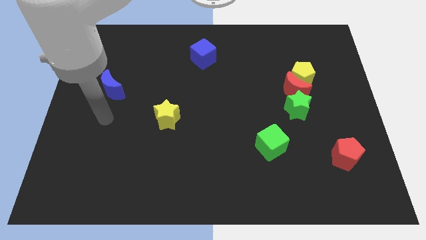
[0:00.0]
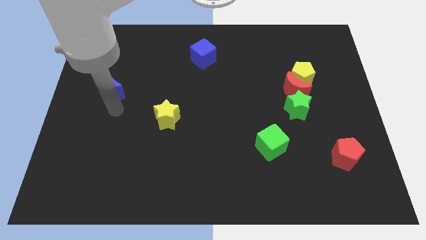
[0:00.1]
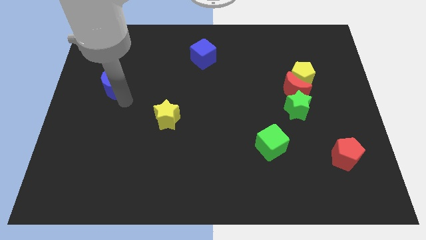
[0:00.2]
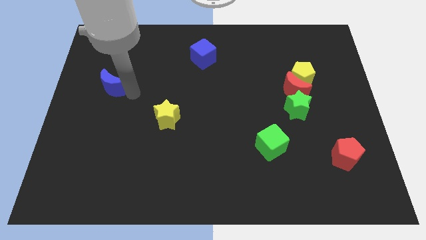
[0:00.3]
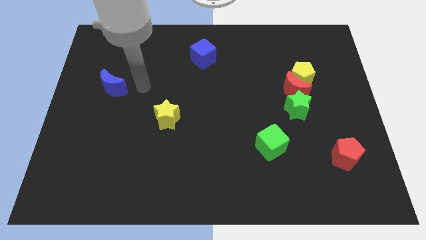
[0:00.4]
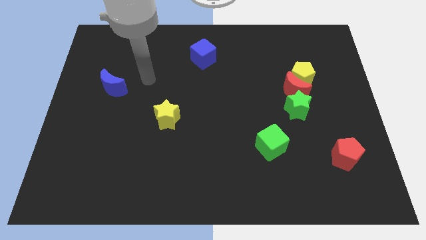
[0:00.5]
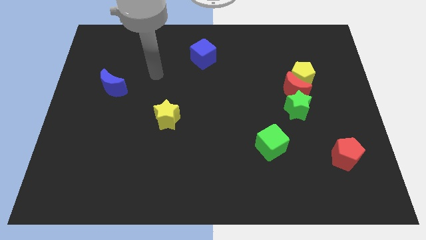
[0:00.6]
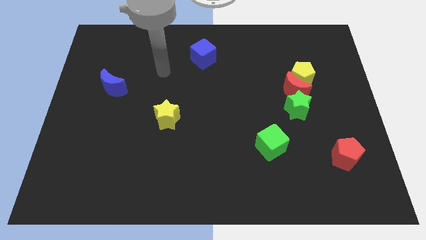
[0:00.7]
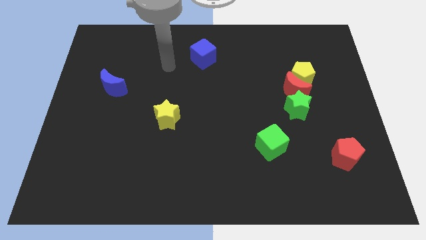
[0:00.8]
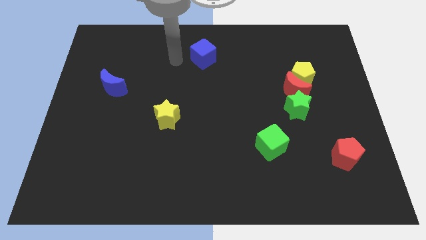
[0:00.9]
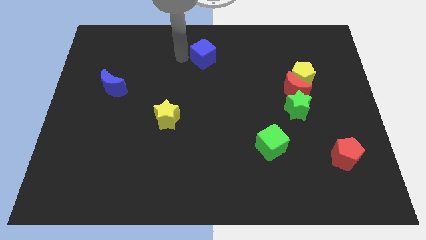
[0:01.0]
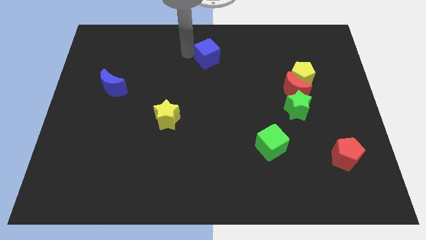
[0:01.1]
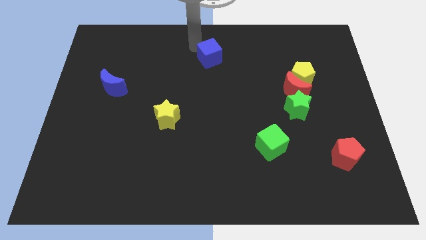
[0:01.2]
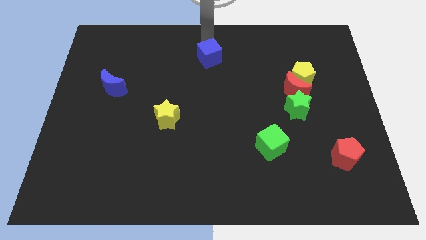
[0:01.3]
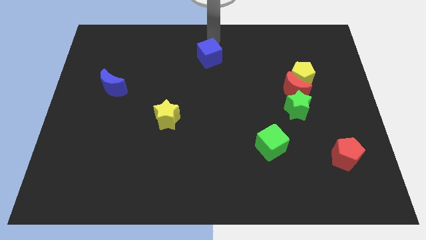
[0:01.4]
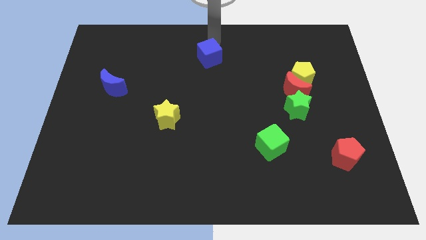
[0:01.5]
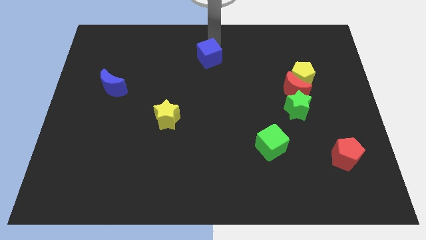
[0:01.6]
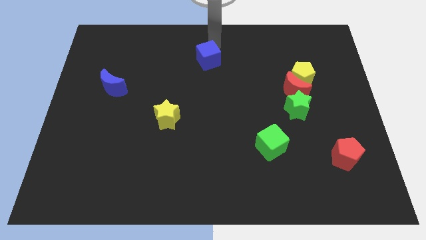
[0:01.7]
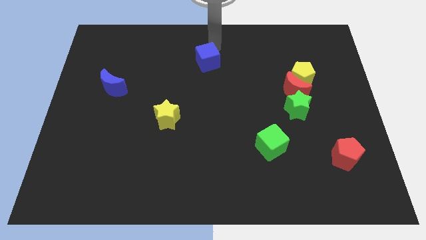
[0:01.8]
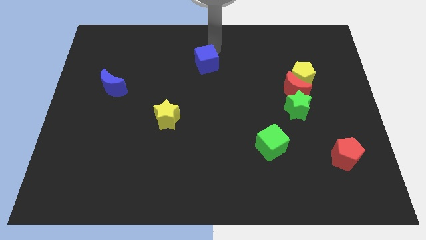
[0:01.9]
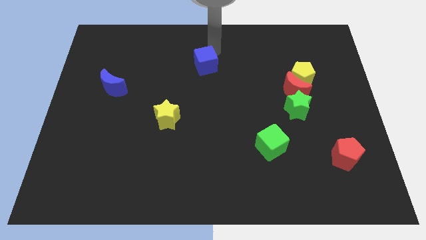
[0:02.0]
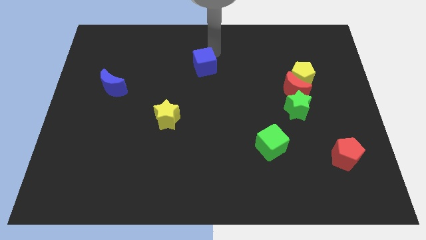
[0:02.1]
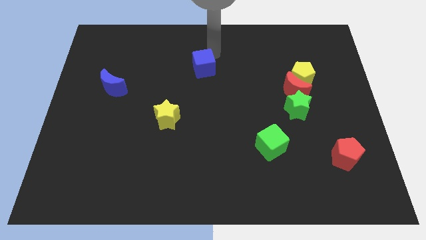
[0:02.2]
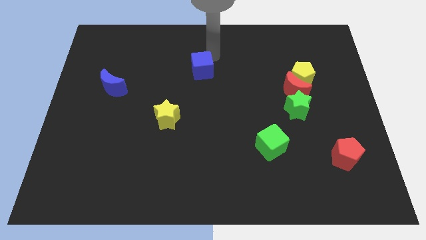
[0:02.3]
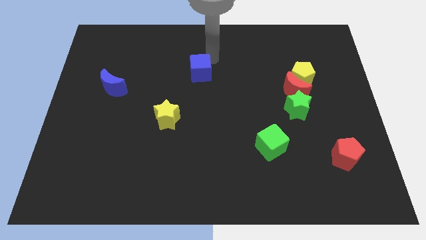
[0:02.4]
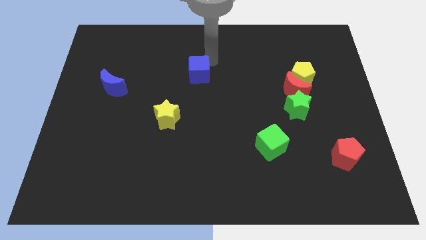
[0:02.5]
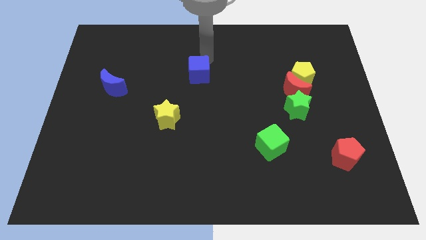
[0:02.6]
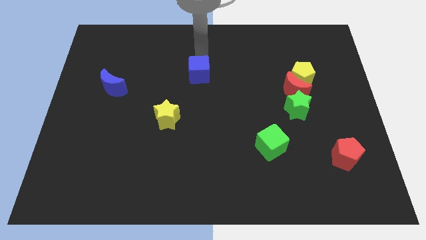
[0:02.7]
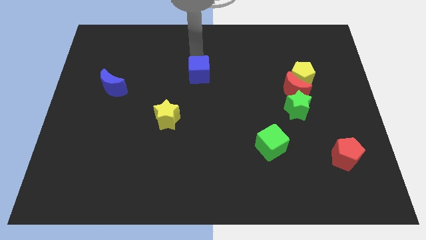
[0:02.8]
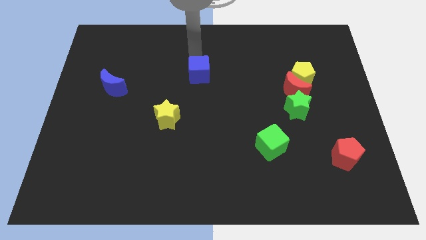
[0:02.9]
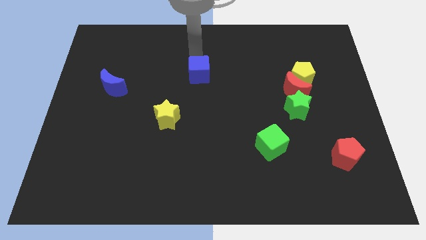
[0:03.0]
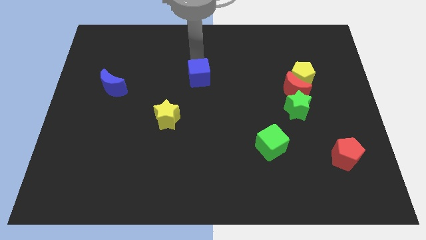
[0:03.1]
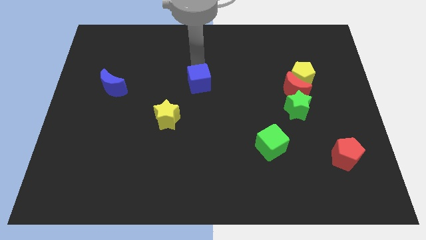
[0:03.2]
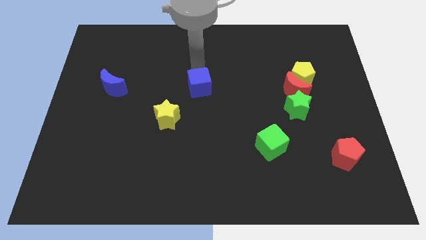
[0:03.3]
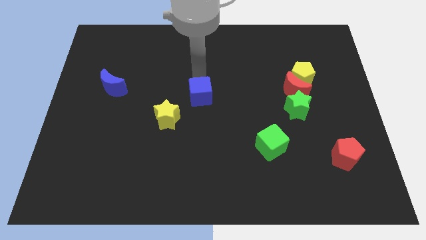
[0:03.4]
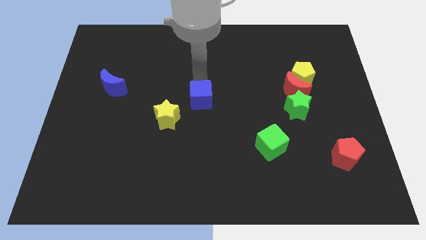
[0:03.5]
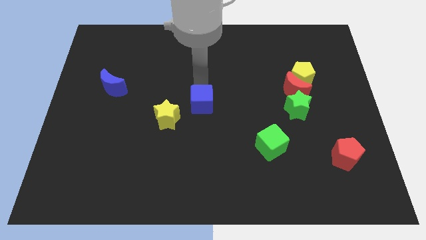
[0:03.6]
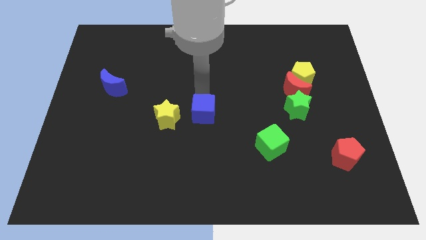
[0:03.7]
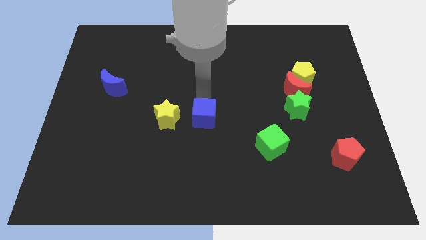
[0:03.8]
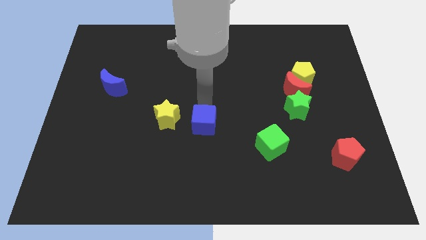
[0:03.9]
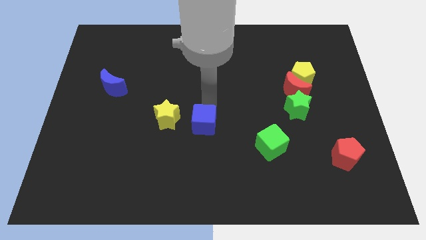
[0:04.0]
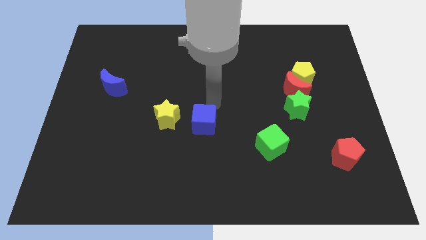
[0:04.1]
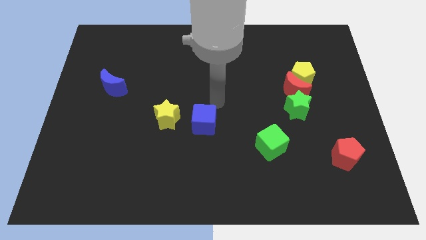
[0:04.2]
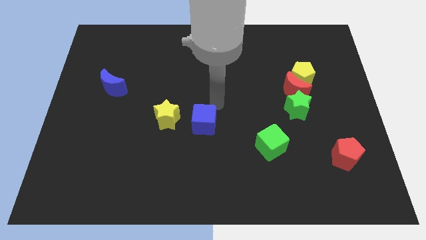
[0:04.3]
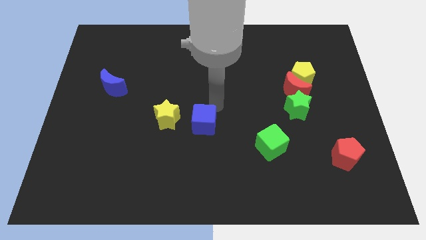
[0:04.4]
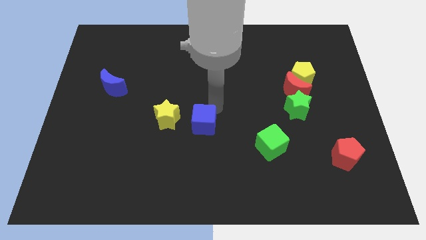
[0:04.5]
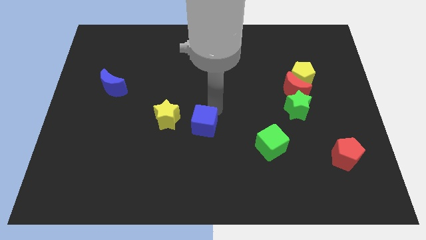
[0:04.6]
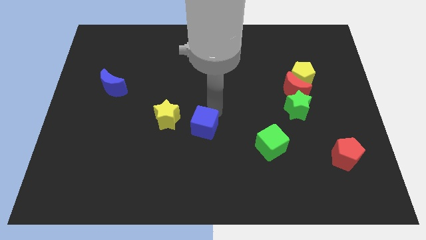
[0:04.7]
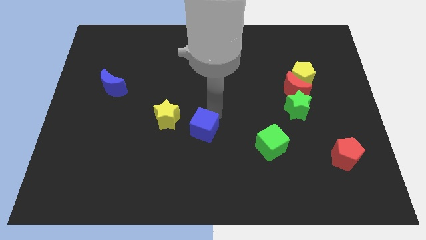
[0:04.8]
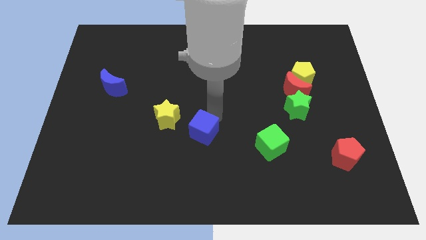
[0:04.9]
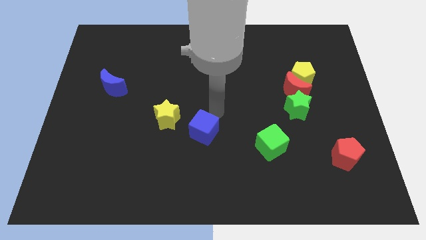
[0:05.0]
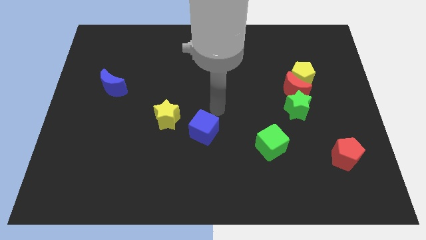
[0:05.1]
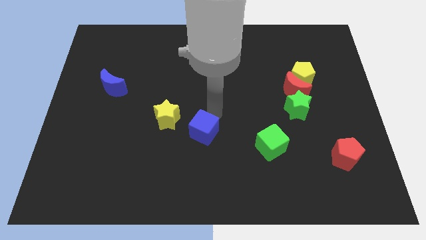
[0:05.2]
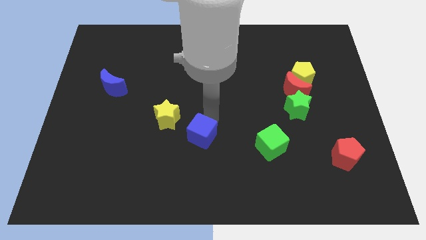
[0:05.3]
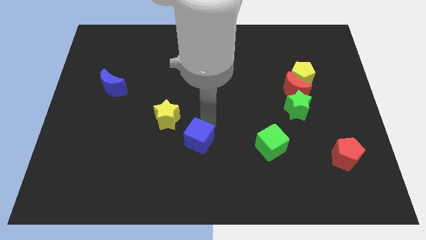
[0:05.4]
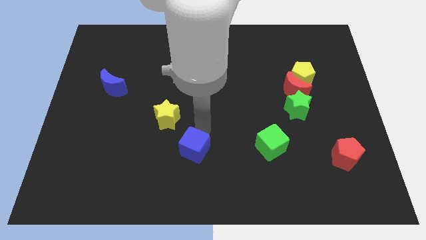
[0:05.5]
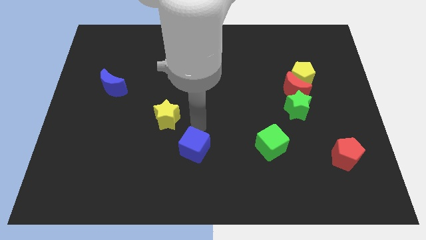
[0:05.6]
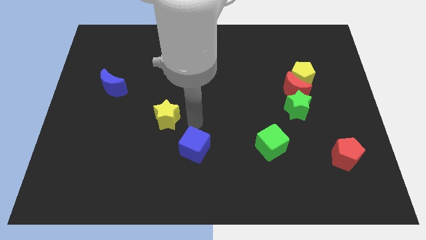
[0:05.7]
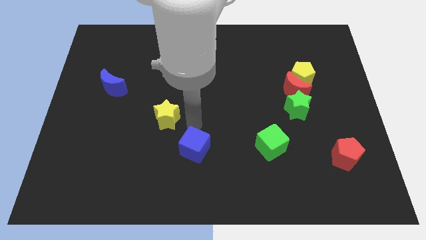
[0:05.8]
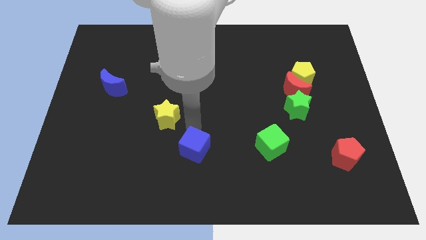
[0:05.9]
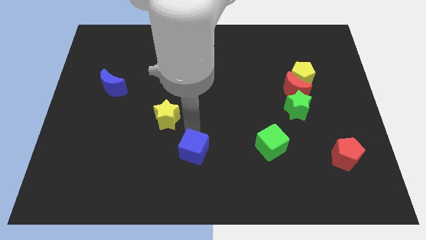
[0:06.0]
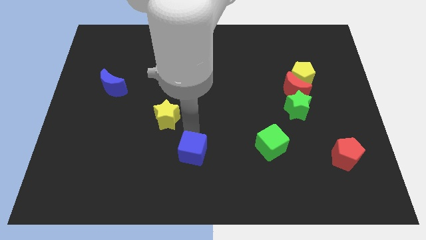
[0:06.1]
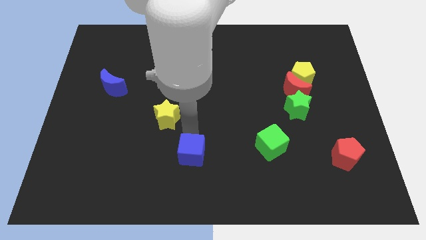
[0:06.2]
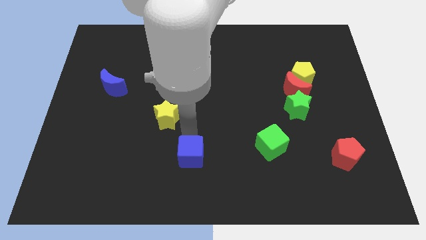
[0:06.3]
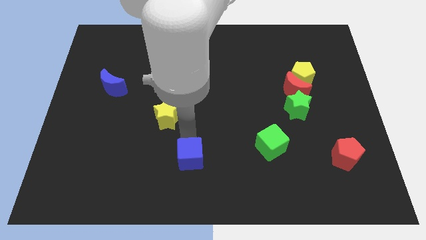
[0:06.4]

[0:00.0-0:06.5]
put the blue cube to the bottom
